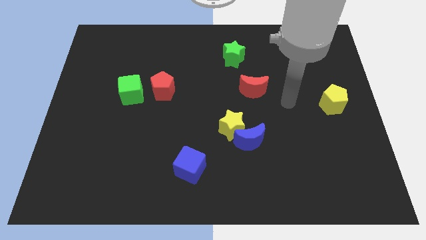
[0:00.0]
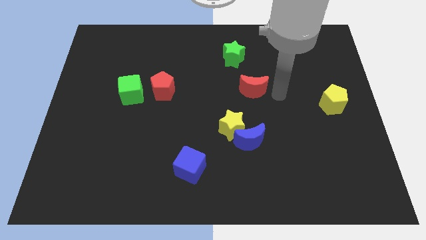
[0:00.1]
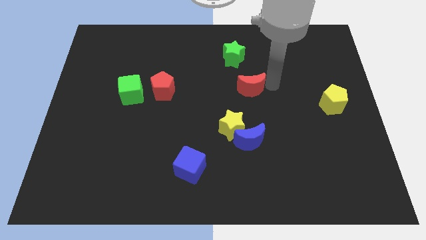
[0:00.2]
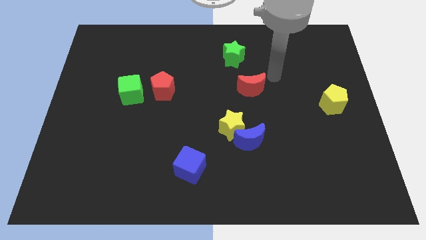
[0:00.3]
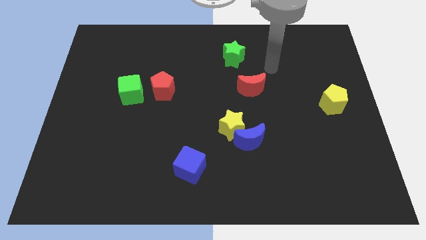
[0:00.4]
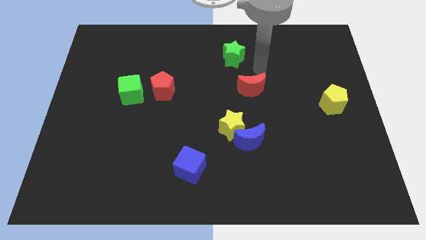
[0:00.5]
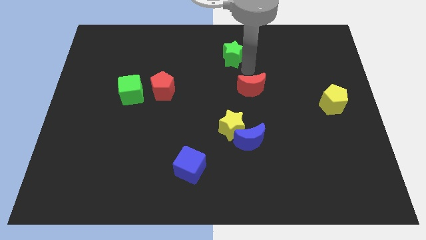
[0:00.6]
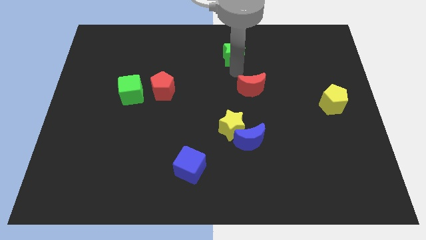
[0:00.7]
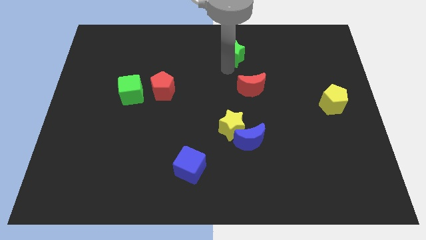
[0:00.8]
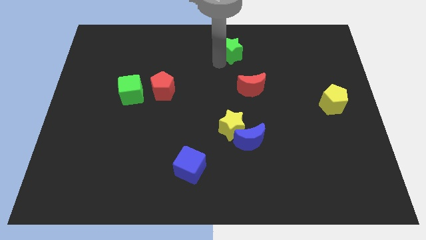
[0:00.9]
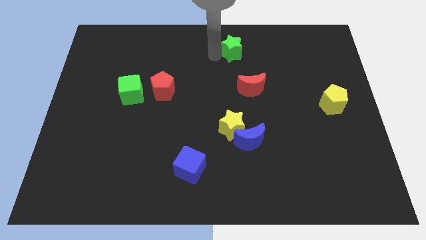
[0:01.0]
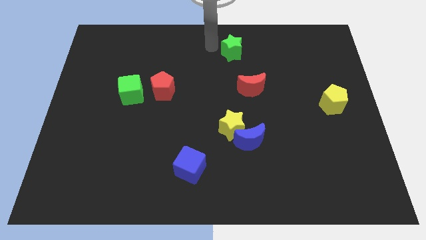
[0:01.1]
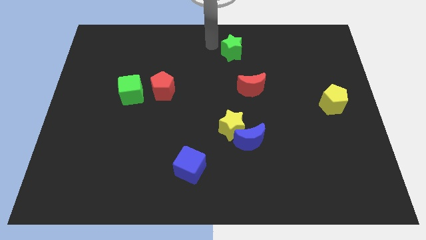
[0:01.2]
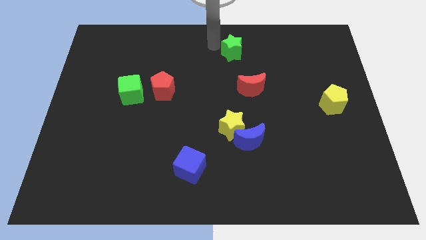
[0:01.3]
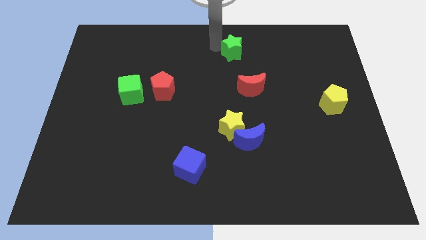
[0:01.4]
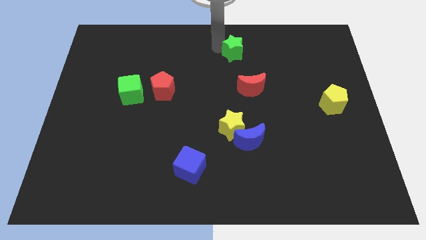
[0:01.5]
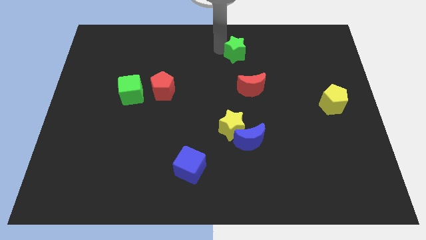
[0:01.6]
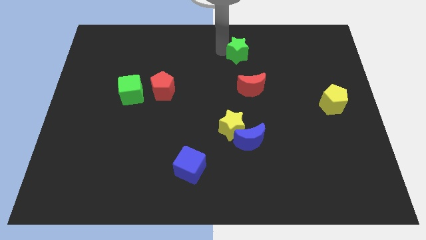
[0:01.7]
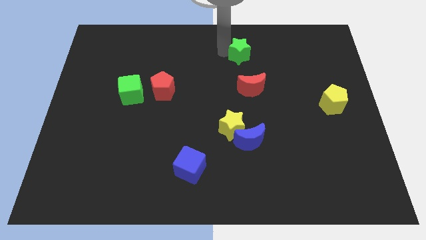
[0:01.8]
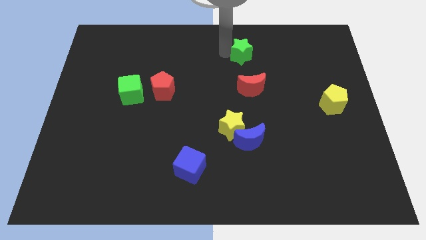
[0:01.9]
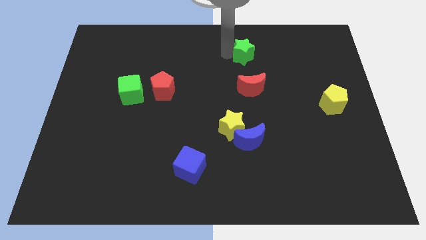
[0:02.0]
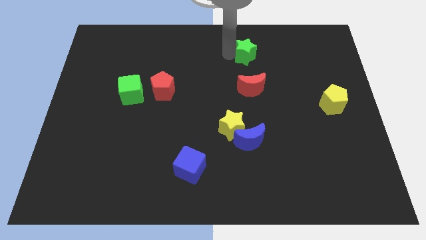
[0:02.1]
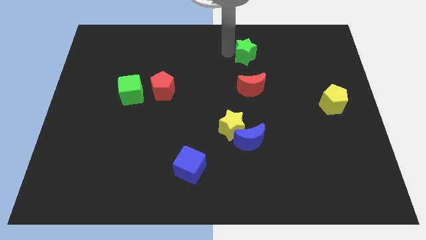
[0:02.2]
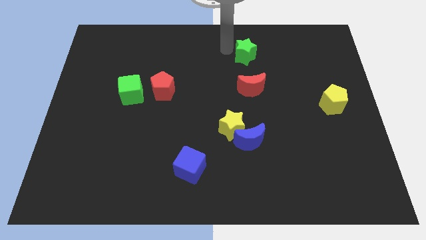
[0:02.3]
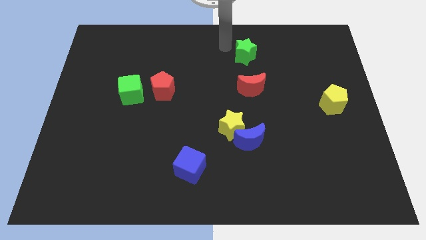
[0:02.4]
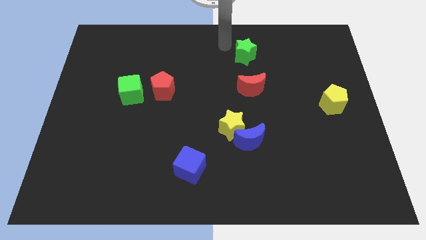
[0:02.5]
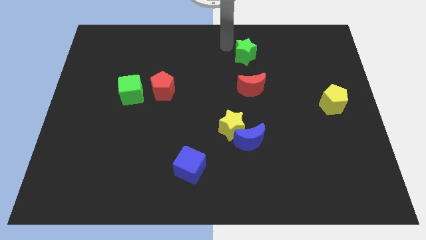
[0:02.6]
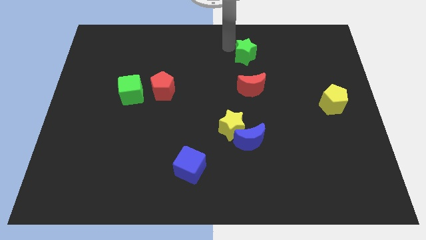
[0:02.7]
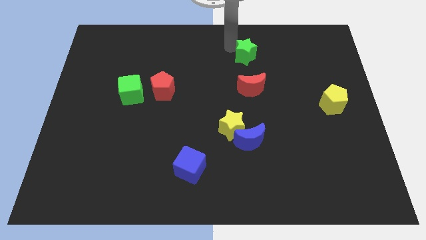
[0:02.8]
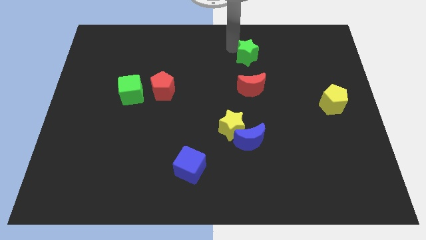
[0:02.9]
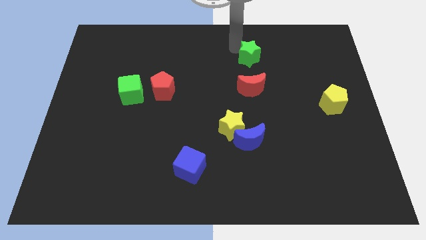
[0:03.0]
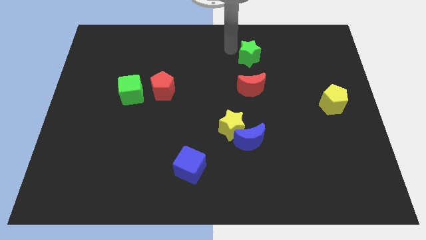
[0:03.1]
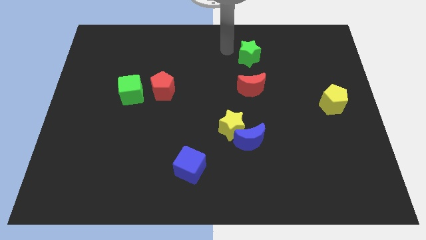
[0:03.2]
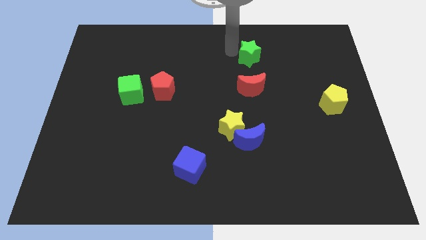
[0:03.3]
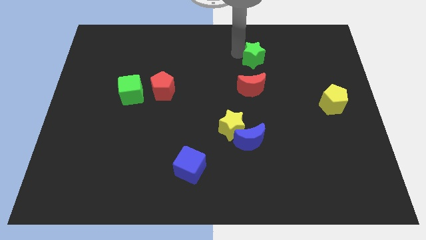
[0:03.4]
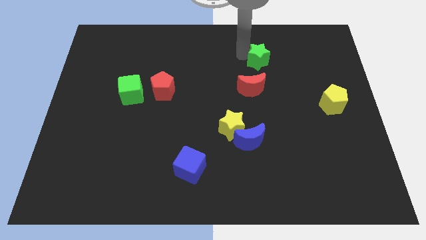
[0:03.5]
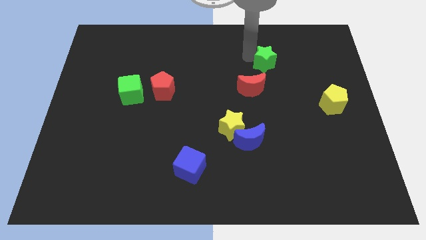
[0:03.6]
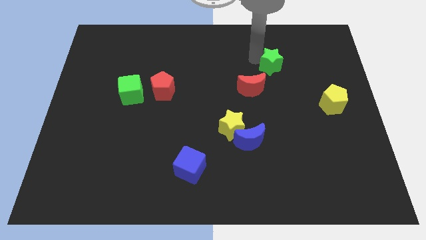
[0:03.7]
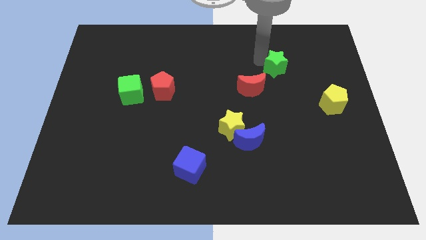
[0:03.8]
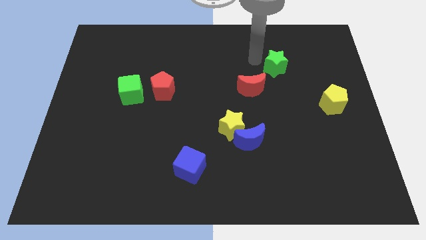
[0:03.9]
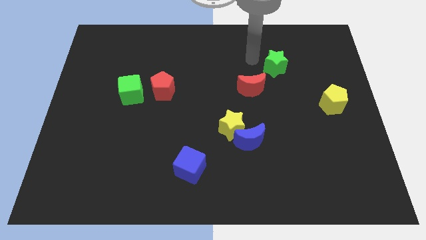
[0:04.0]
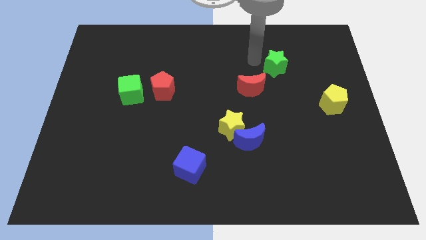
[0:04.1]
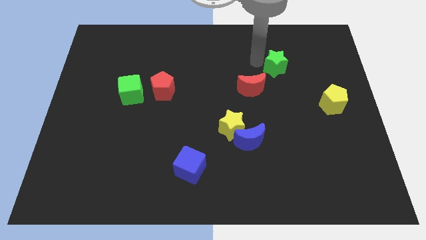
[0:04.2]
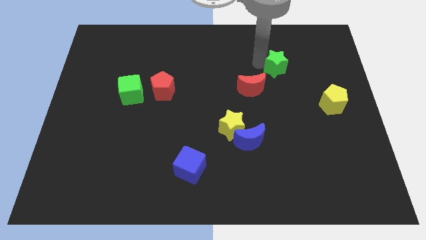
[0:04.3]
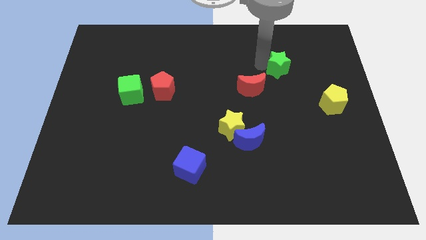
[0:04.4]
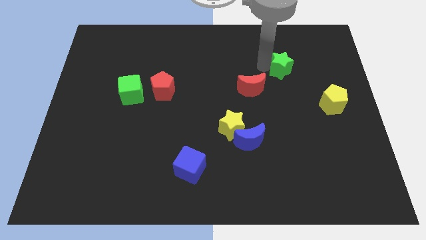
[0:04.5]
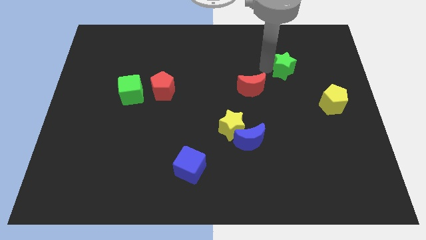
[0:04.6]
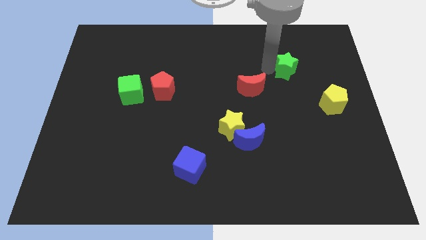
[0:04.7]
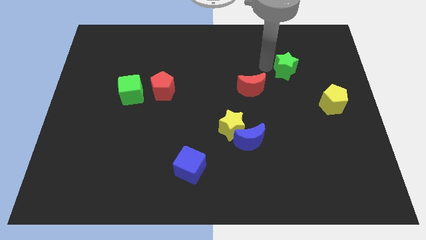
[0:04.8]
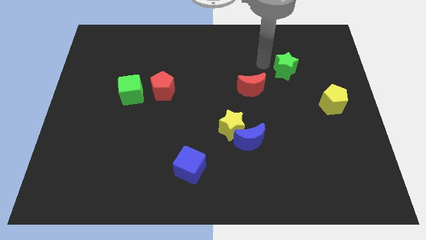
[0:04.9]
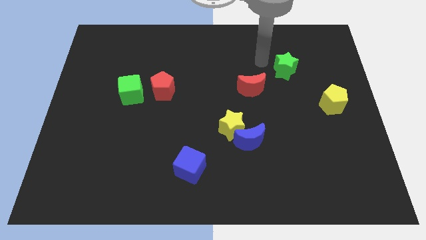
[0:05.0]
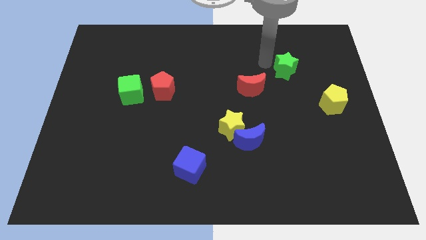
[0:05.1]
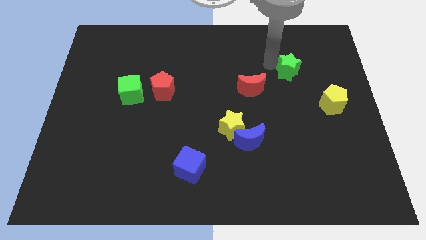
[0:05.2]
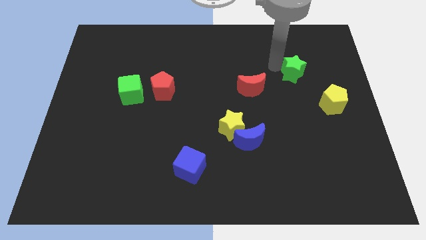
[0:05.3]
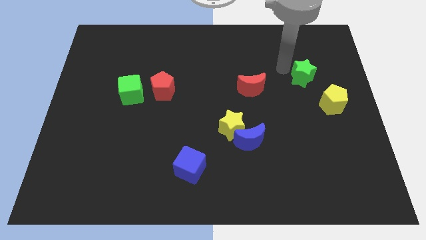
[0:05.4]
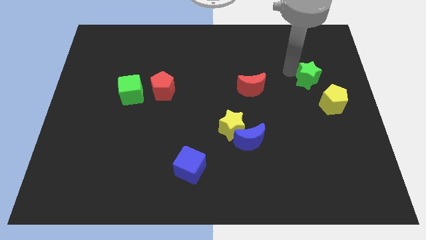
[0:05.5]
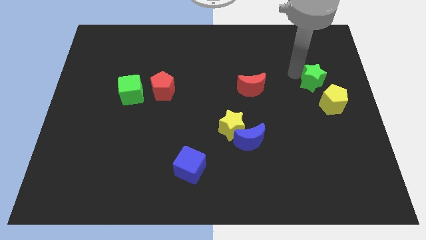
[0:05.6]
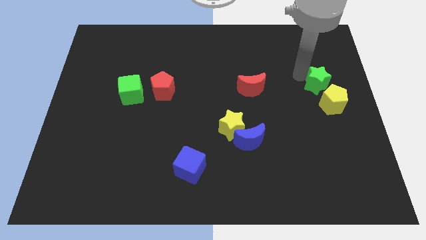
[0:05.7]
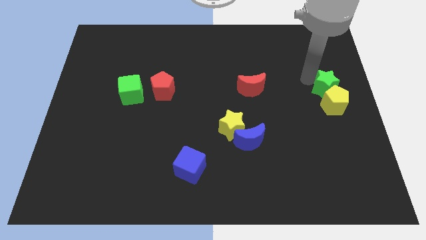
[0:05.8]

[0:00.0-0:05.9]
push the green star to the right side of the board

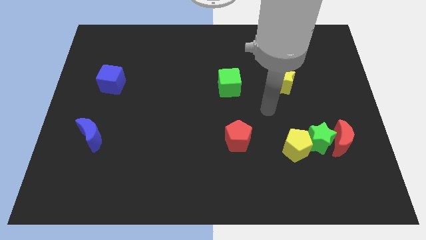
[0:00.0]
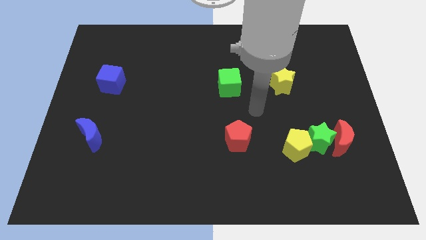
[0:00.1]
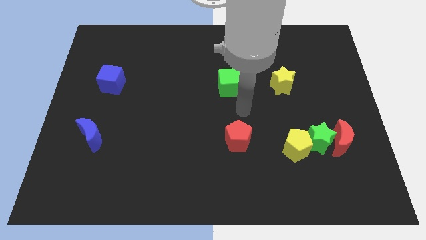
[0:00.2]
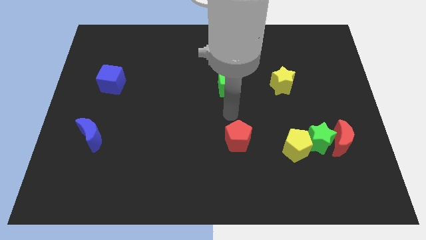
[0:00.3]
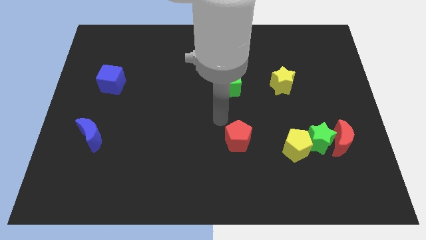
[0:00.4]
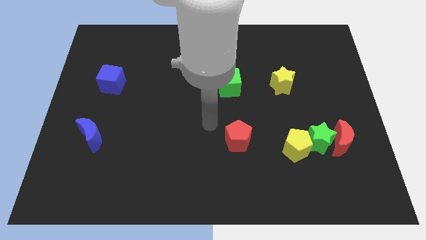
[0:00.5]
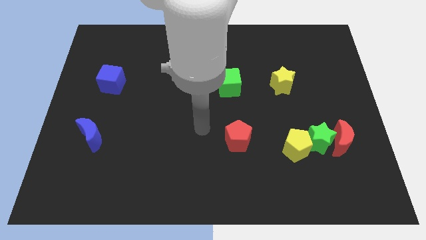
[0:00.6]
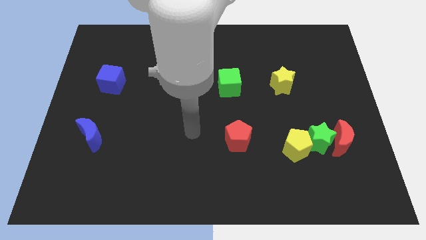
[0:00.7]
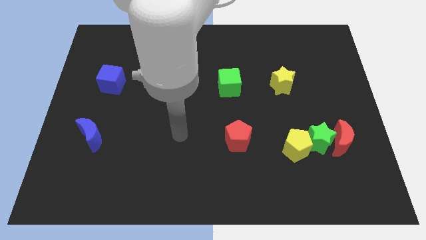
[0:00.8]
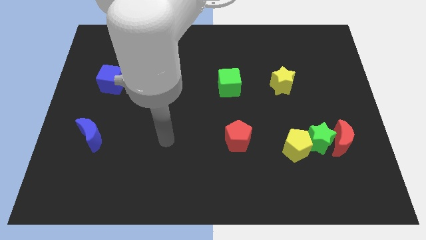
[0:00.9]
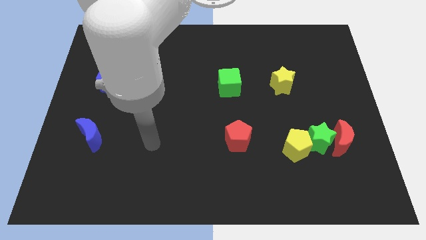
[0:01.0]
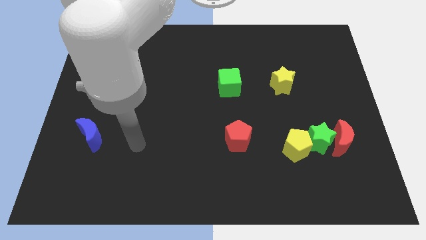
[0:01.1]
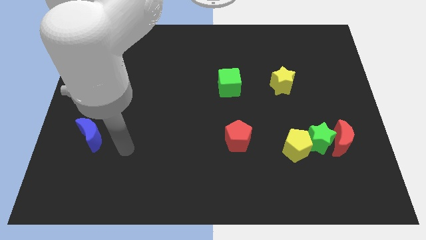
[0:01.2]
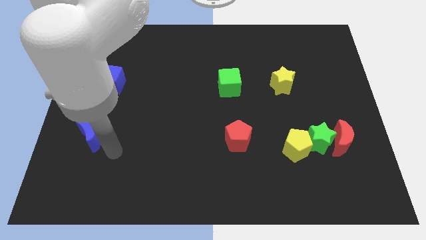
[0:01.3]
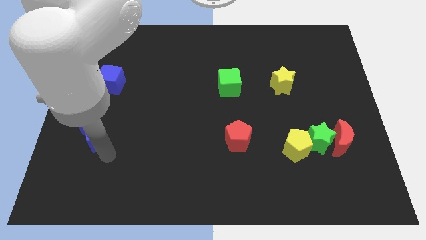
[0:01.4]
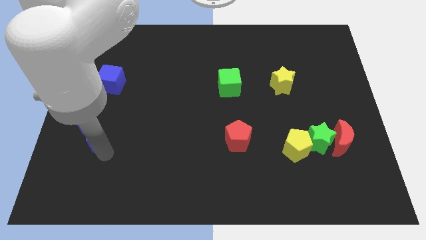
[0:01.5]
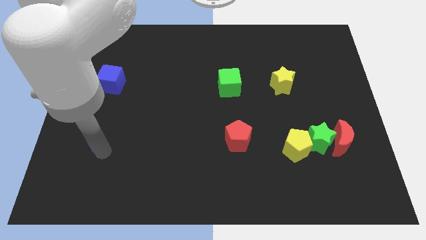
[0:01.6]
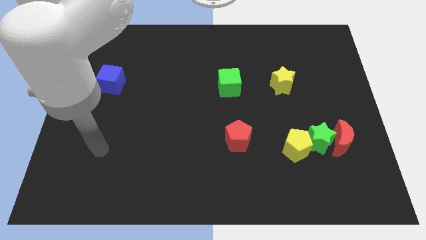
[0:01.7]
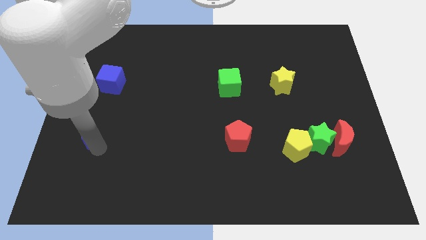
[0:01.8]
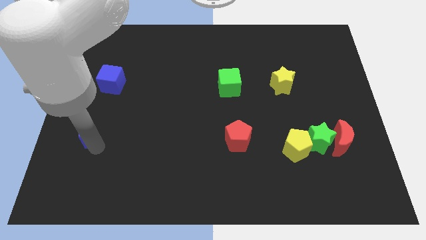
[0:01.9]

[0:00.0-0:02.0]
push the blue moon to the center left
